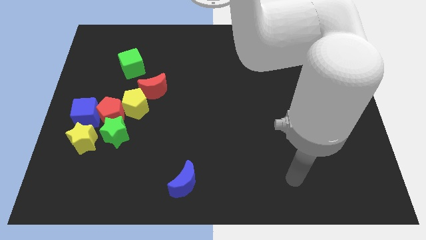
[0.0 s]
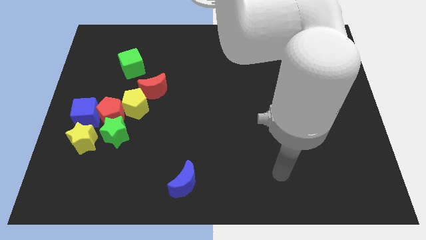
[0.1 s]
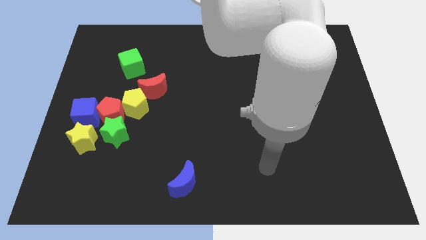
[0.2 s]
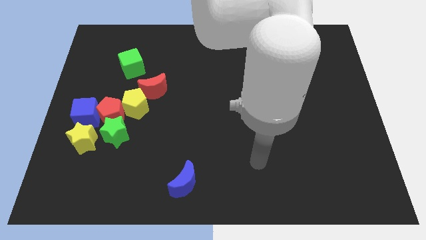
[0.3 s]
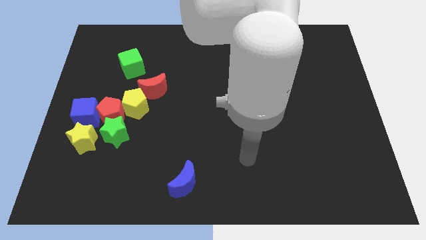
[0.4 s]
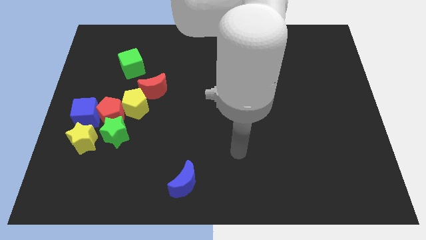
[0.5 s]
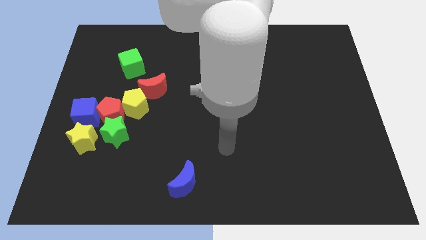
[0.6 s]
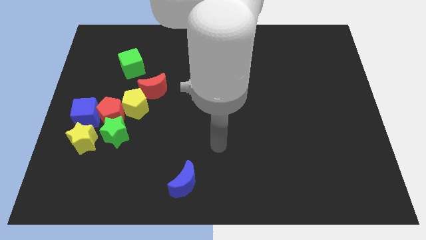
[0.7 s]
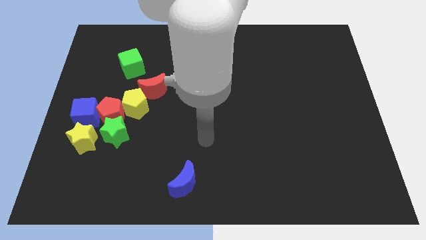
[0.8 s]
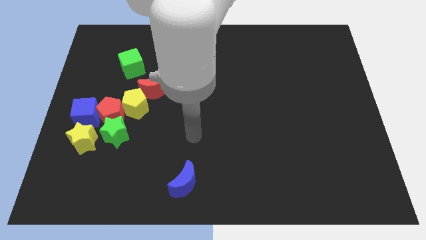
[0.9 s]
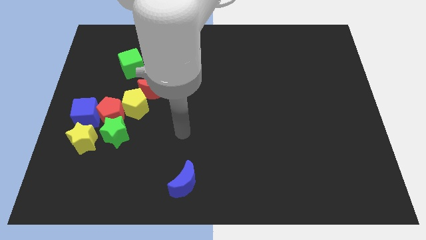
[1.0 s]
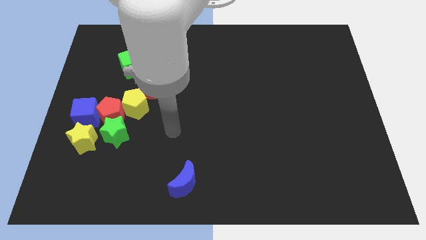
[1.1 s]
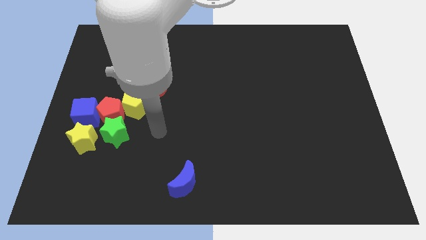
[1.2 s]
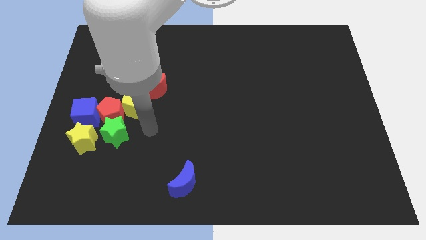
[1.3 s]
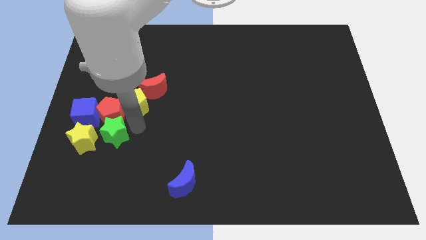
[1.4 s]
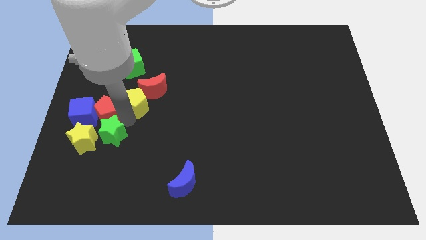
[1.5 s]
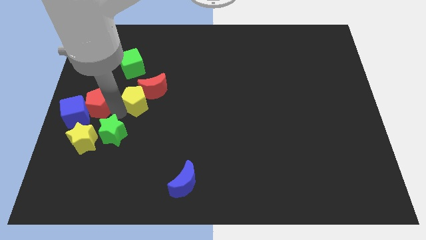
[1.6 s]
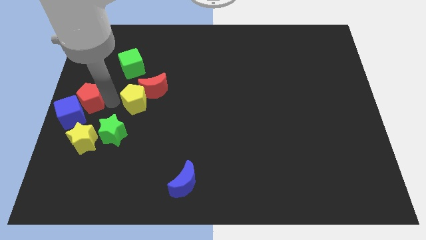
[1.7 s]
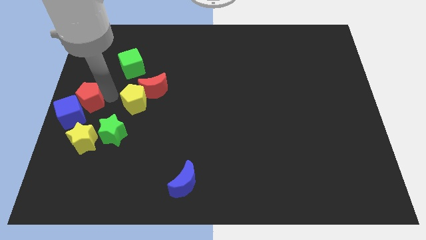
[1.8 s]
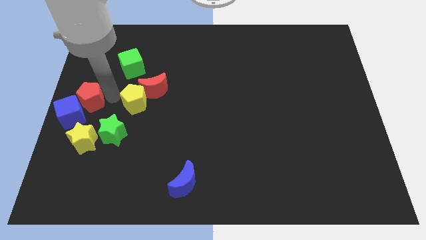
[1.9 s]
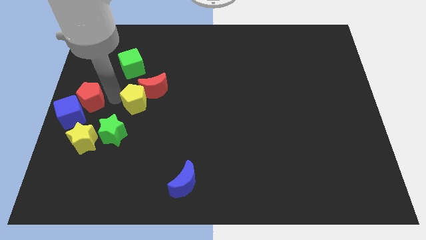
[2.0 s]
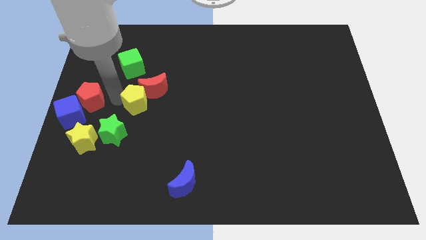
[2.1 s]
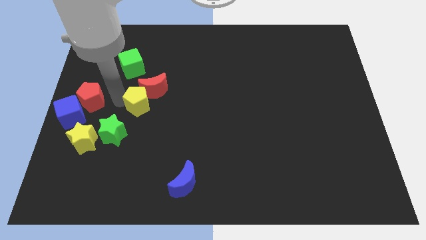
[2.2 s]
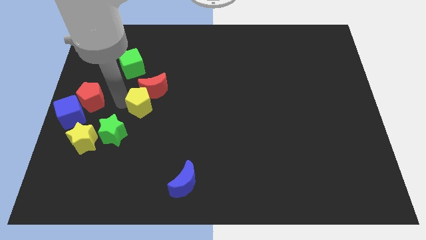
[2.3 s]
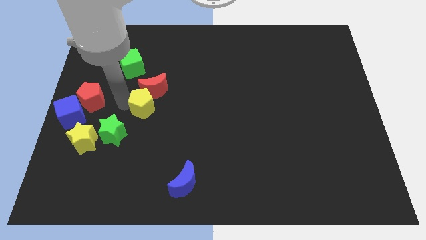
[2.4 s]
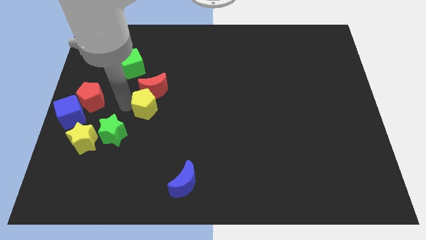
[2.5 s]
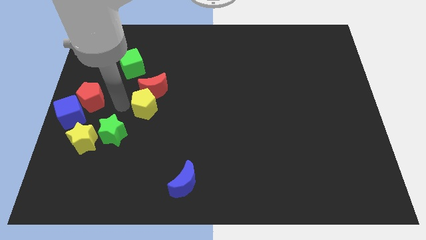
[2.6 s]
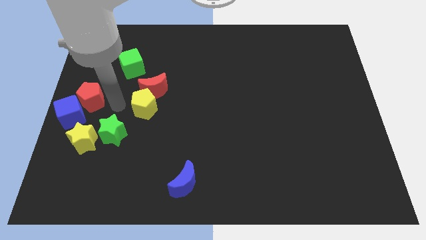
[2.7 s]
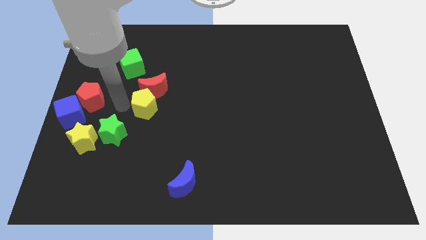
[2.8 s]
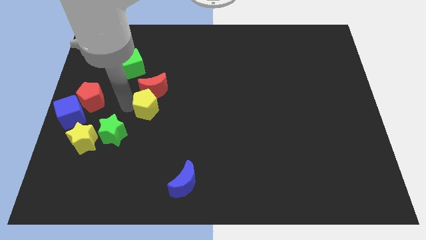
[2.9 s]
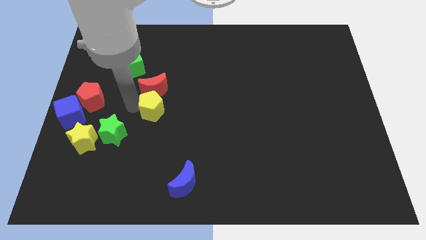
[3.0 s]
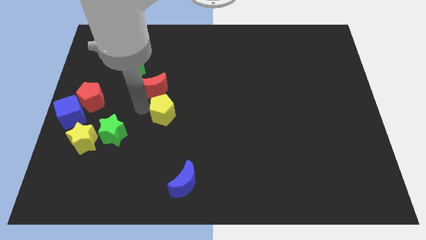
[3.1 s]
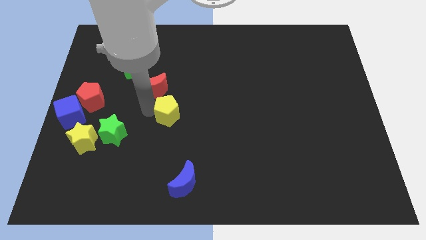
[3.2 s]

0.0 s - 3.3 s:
slide the yellow pentagon a bit right

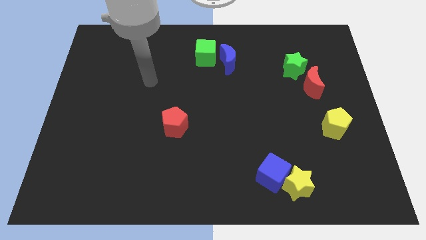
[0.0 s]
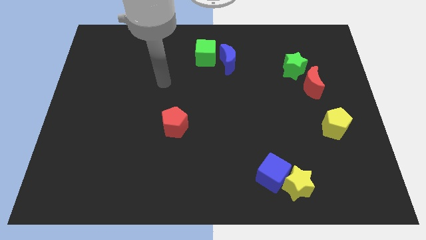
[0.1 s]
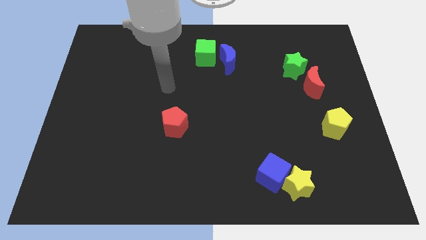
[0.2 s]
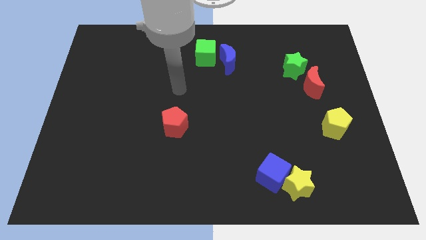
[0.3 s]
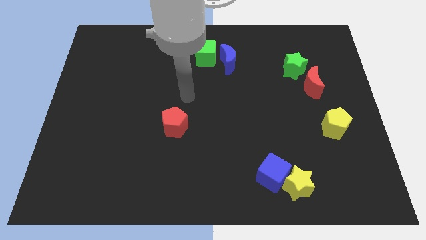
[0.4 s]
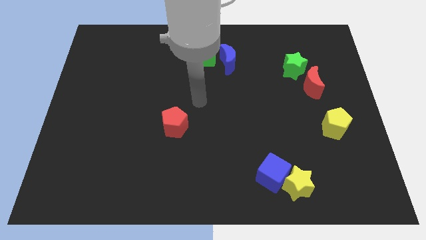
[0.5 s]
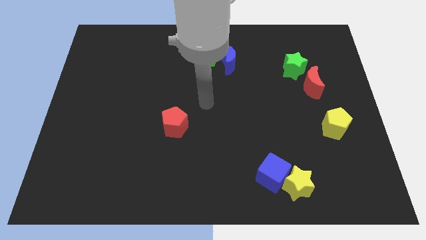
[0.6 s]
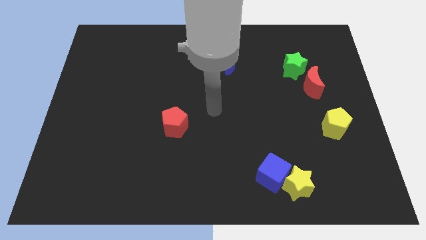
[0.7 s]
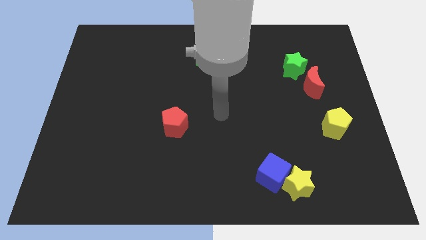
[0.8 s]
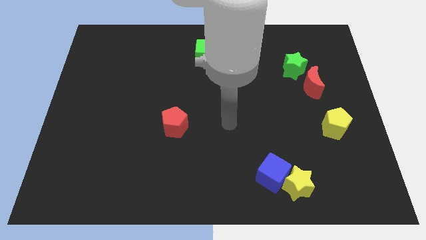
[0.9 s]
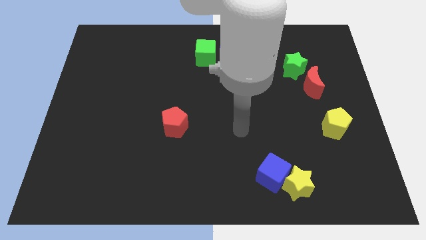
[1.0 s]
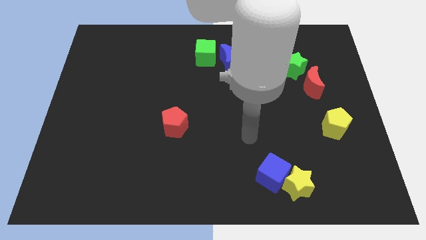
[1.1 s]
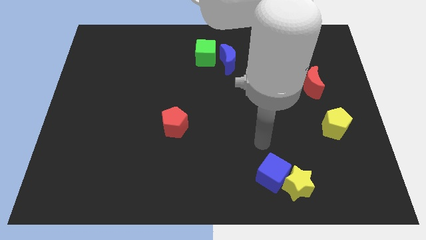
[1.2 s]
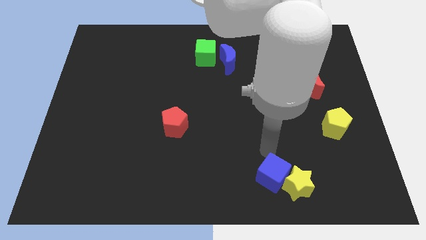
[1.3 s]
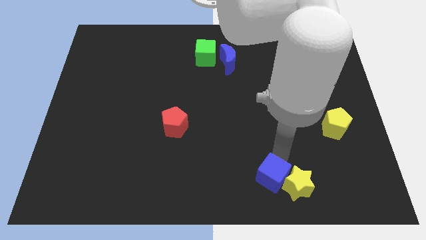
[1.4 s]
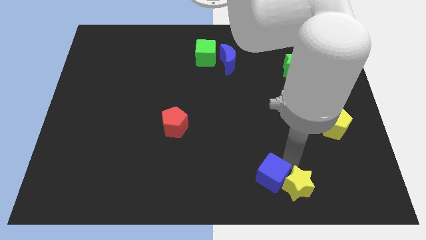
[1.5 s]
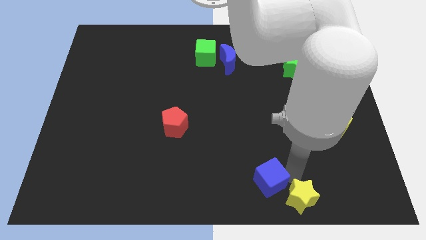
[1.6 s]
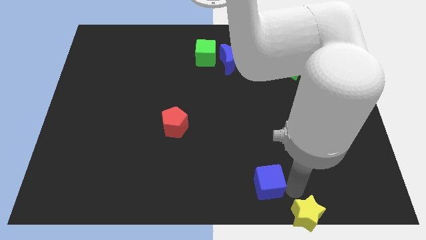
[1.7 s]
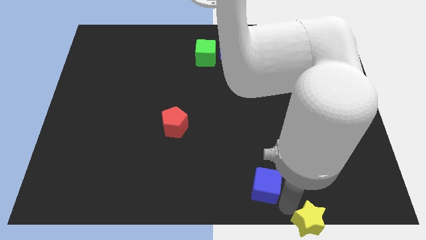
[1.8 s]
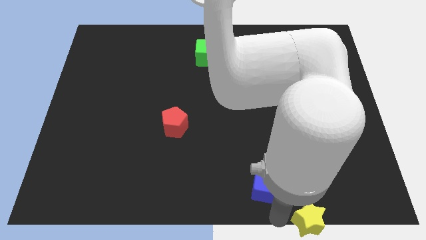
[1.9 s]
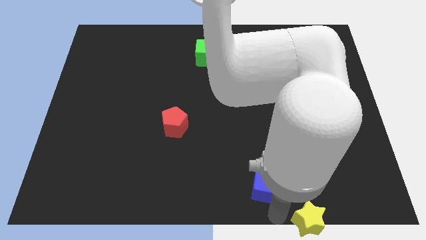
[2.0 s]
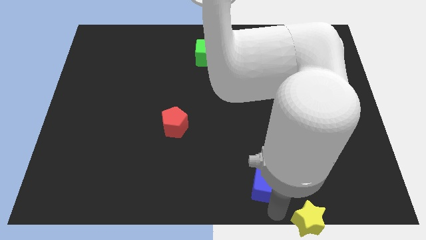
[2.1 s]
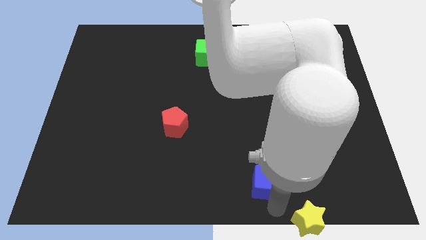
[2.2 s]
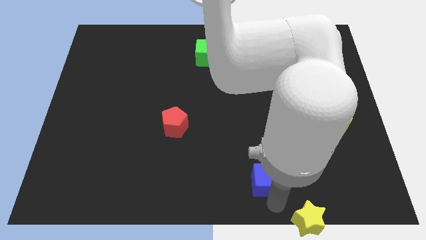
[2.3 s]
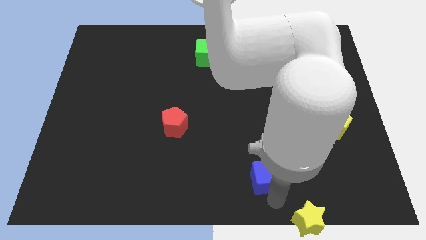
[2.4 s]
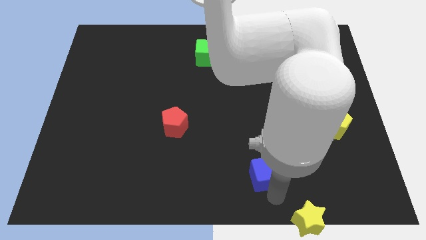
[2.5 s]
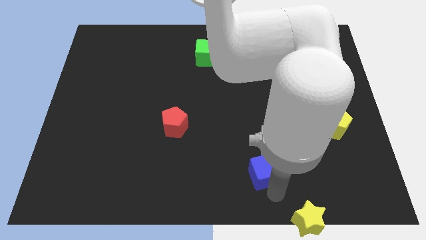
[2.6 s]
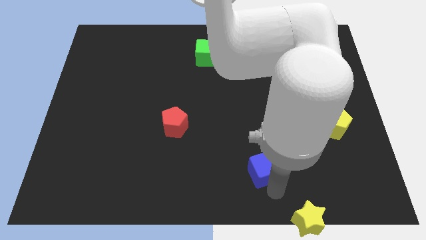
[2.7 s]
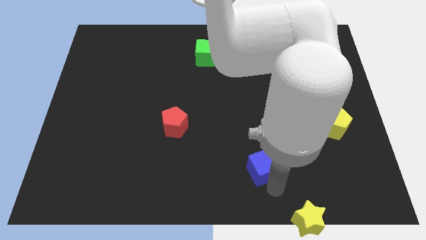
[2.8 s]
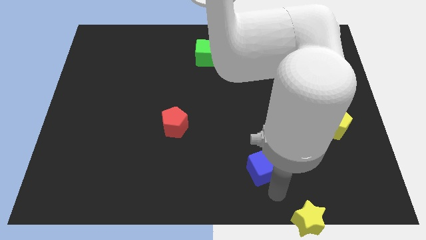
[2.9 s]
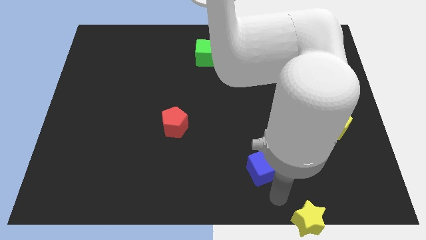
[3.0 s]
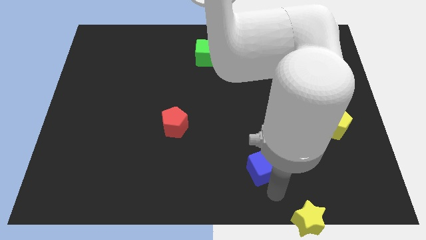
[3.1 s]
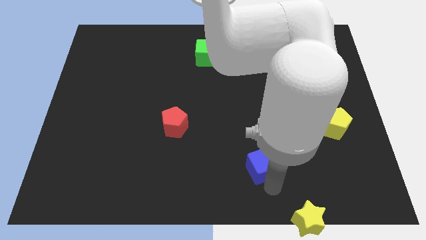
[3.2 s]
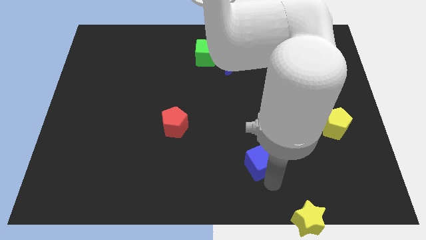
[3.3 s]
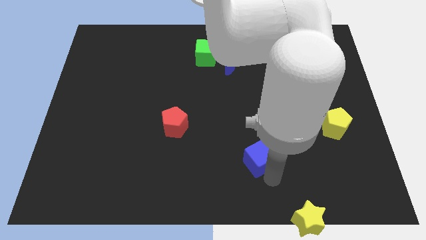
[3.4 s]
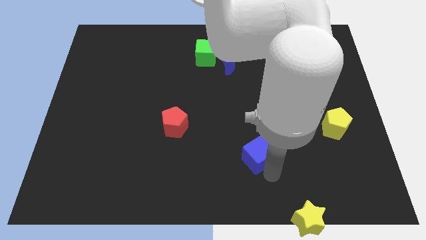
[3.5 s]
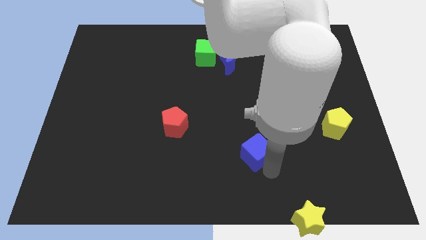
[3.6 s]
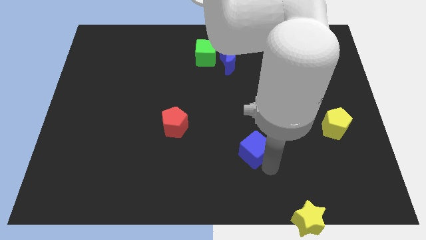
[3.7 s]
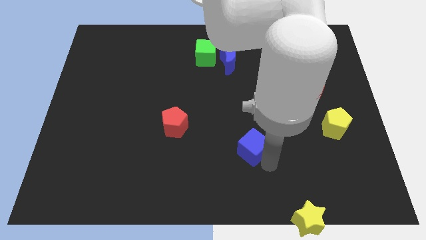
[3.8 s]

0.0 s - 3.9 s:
slide the blue cube up and left diagonally somewhat

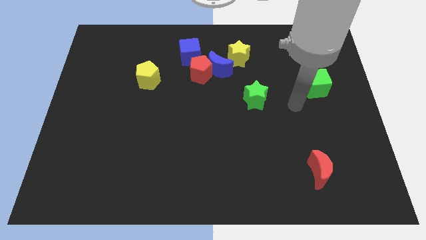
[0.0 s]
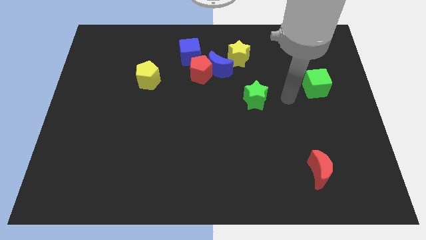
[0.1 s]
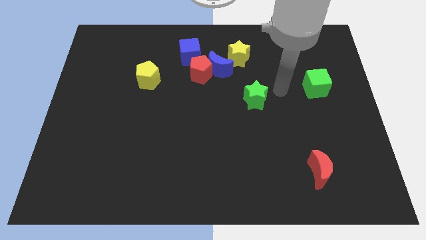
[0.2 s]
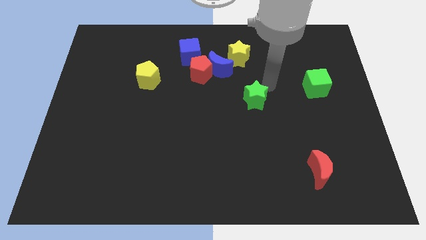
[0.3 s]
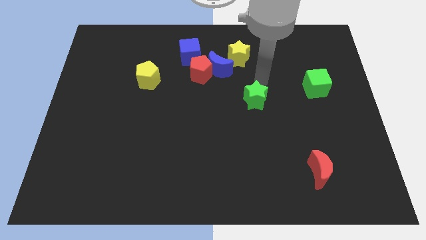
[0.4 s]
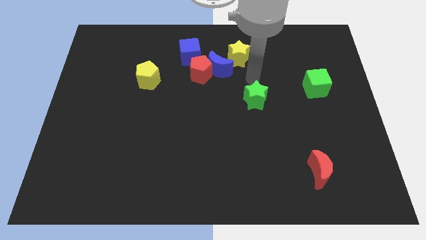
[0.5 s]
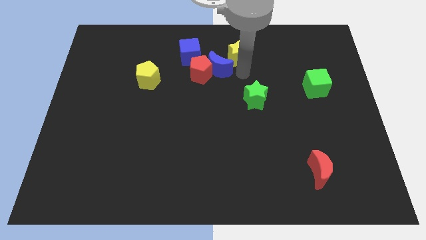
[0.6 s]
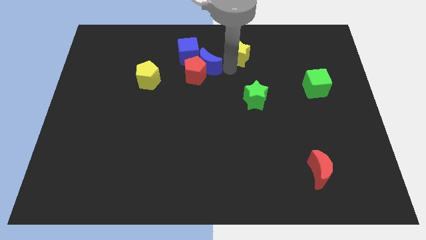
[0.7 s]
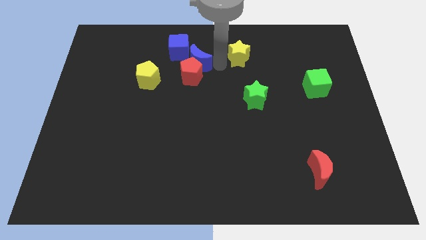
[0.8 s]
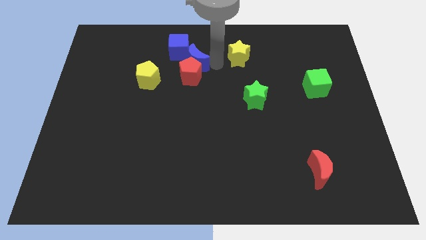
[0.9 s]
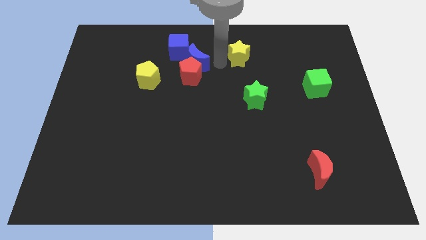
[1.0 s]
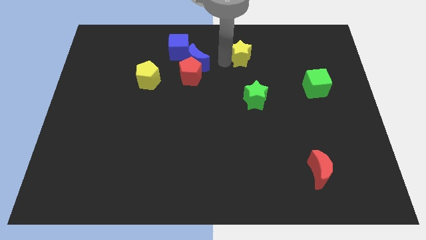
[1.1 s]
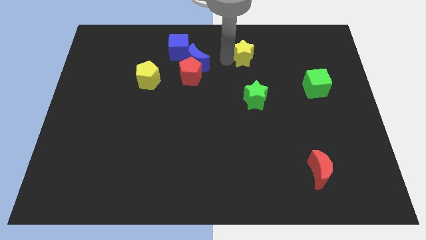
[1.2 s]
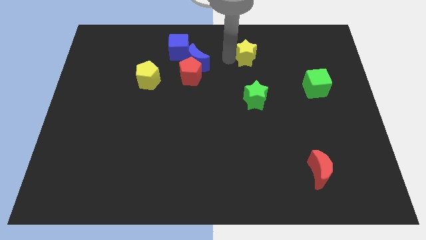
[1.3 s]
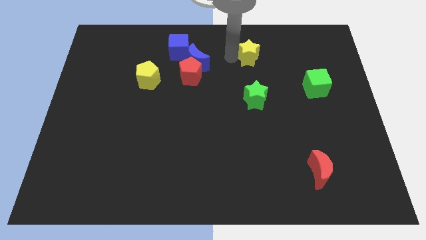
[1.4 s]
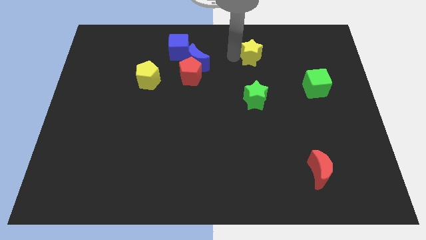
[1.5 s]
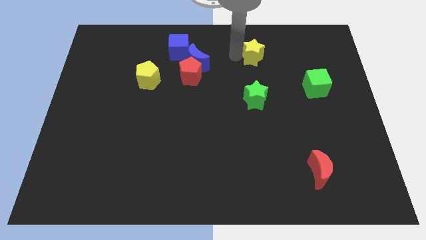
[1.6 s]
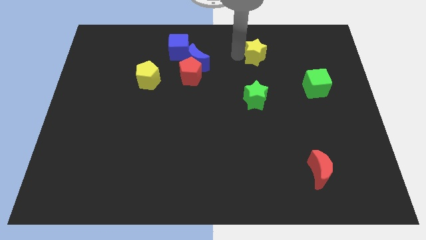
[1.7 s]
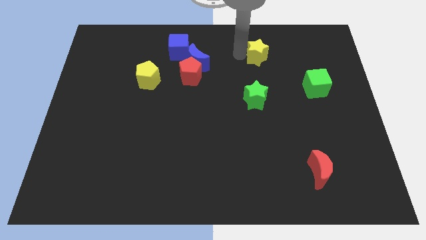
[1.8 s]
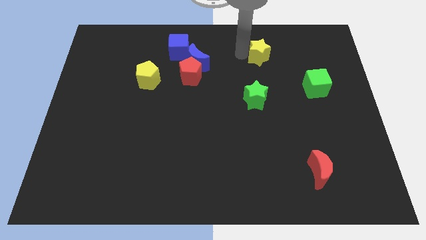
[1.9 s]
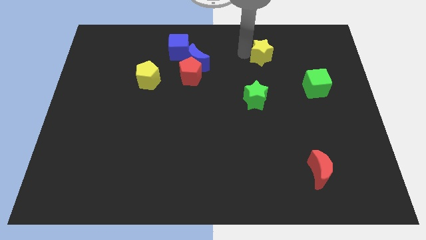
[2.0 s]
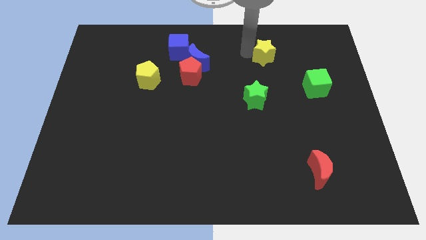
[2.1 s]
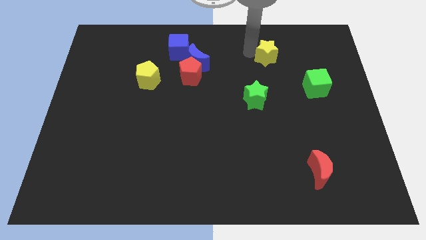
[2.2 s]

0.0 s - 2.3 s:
slightly move the yellow star right
